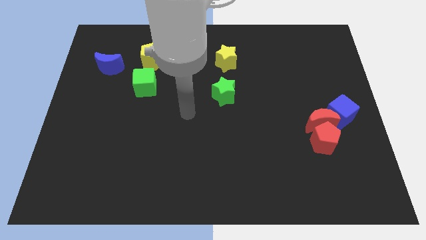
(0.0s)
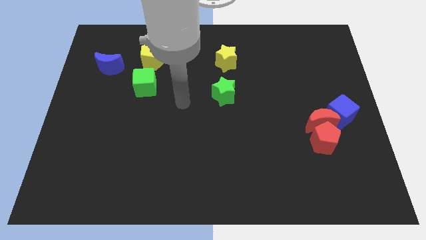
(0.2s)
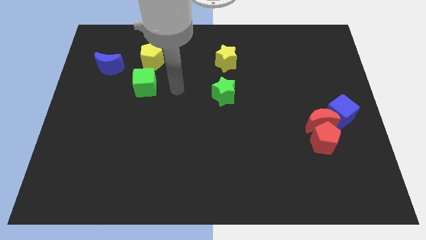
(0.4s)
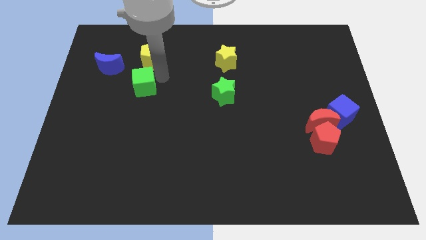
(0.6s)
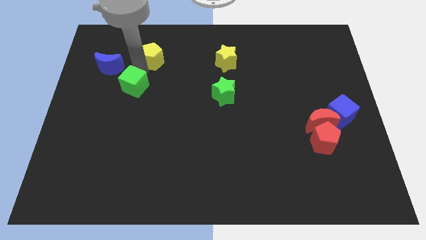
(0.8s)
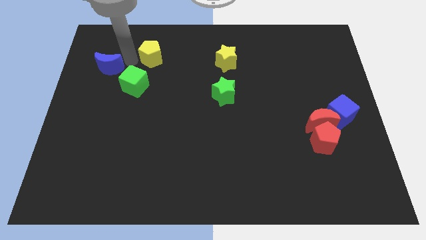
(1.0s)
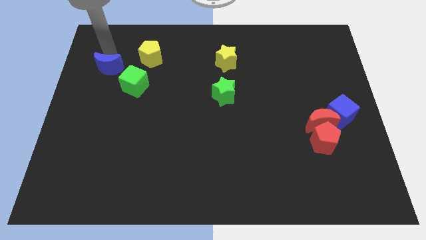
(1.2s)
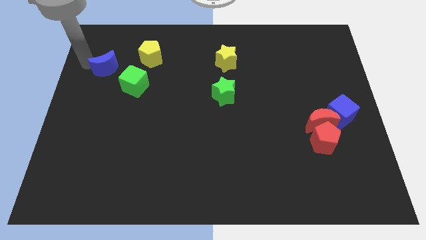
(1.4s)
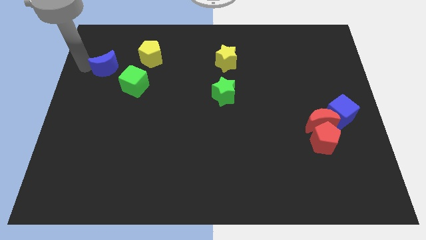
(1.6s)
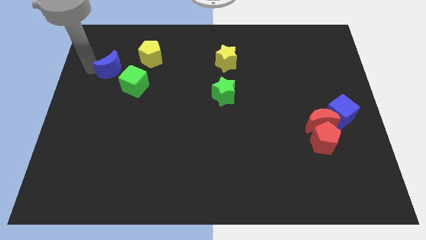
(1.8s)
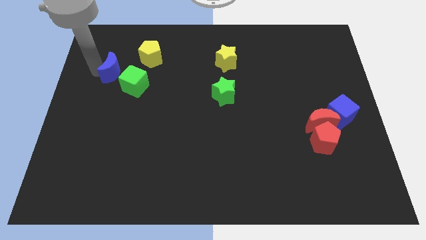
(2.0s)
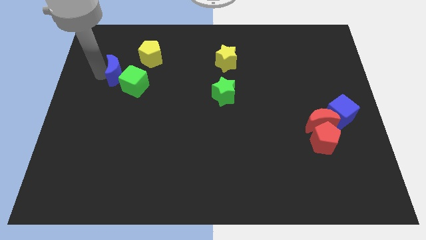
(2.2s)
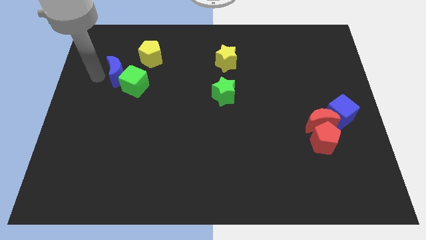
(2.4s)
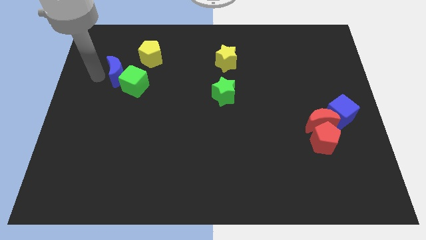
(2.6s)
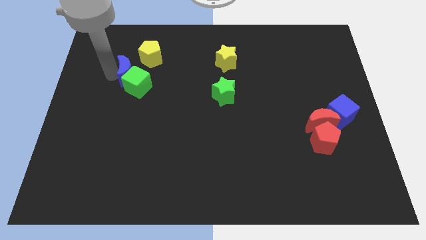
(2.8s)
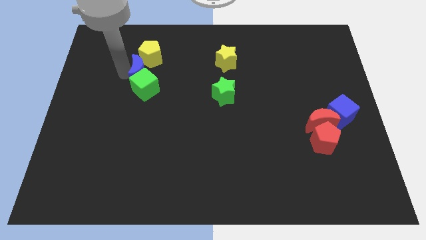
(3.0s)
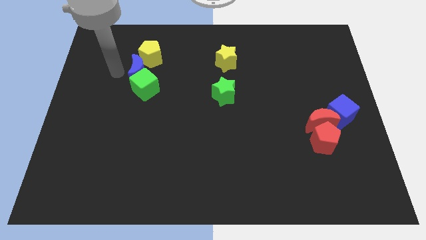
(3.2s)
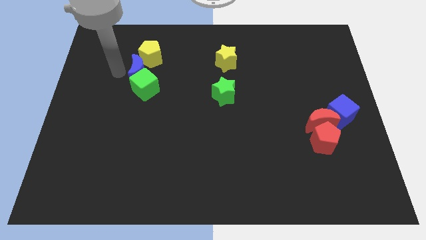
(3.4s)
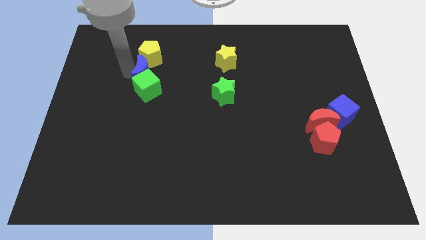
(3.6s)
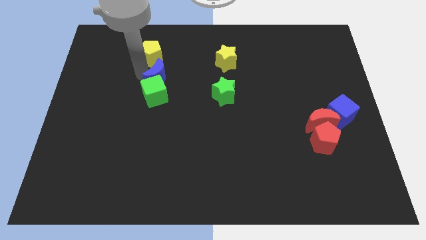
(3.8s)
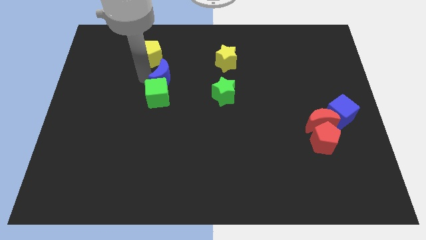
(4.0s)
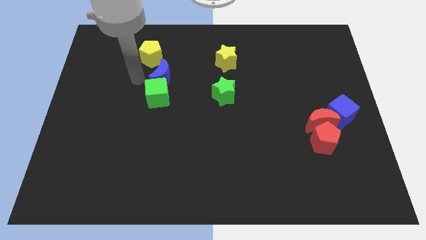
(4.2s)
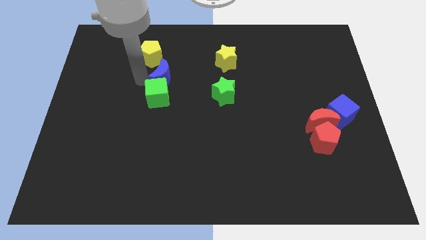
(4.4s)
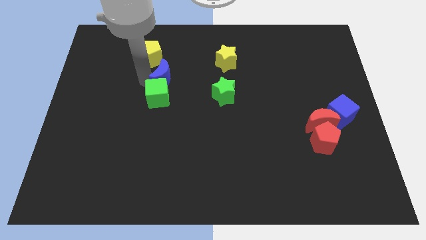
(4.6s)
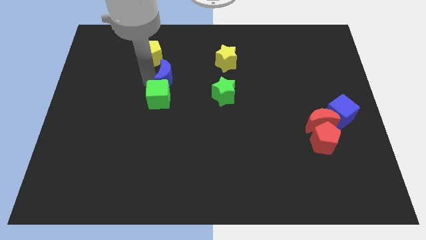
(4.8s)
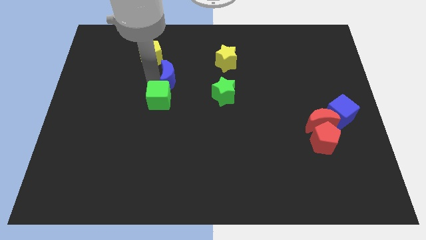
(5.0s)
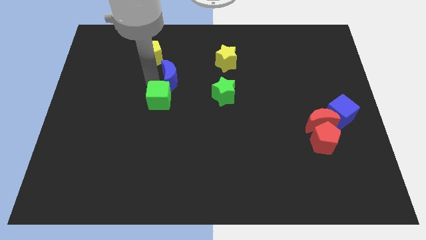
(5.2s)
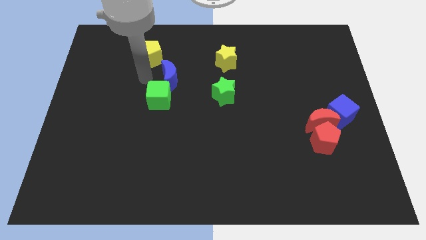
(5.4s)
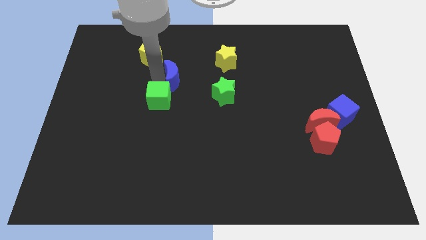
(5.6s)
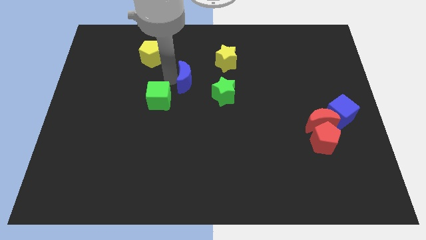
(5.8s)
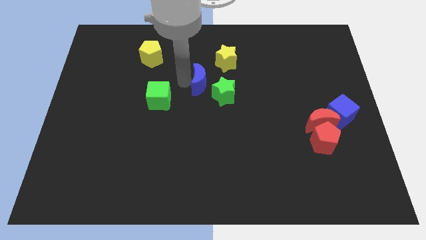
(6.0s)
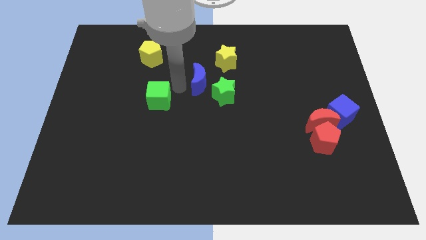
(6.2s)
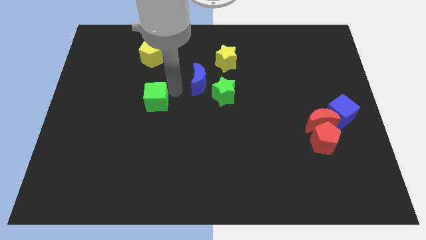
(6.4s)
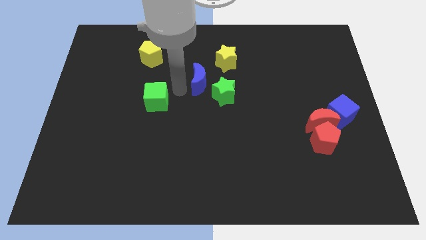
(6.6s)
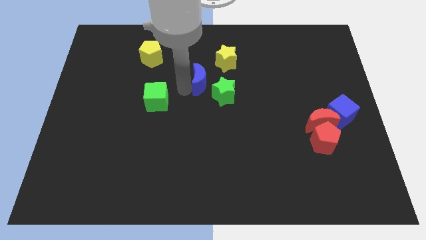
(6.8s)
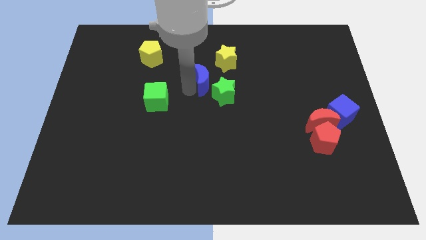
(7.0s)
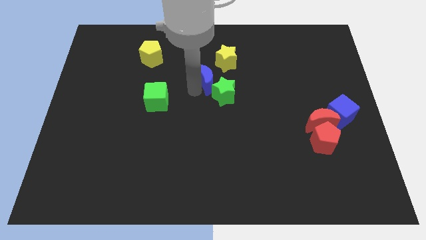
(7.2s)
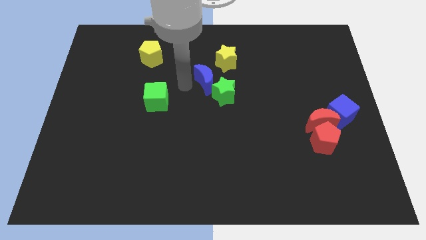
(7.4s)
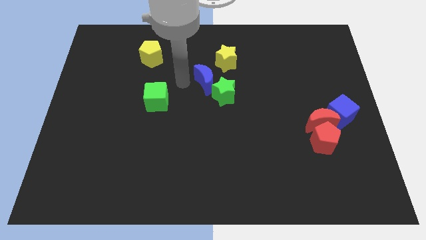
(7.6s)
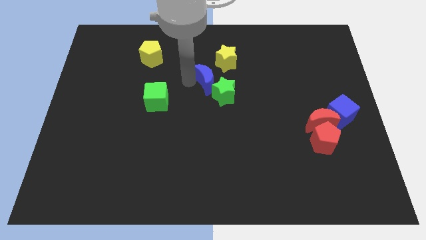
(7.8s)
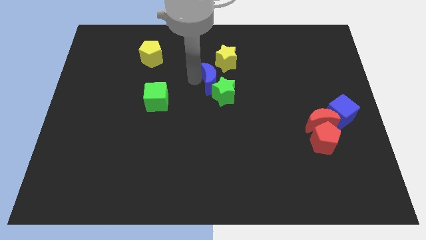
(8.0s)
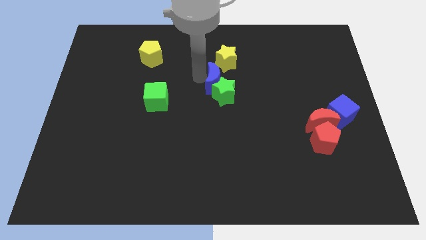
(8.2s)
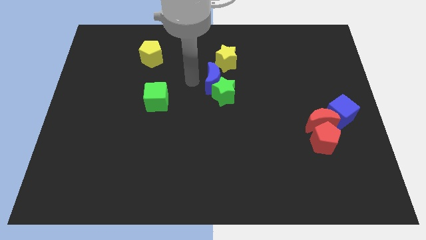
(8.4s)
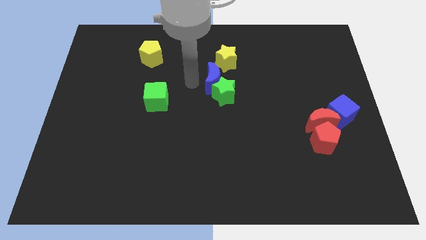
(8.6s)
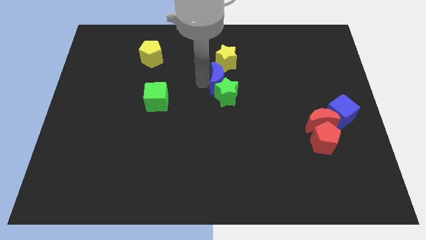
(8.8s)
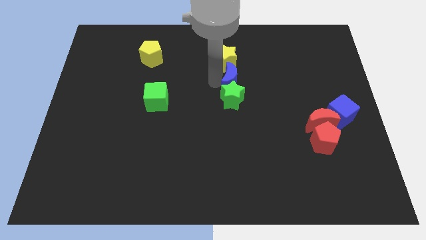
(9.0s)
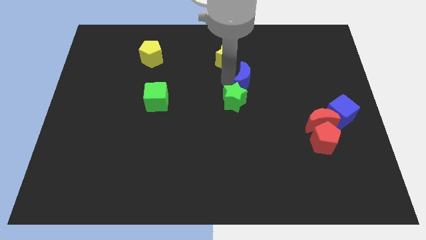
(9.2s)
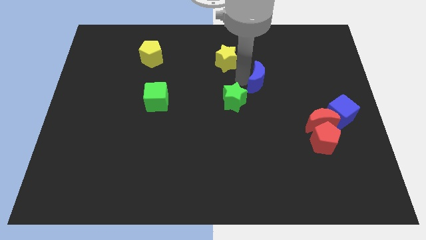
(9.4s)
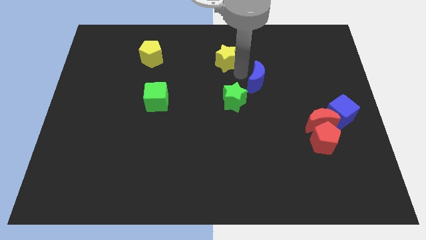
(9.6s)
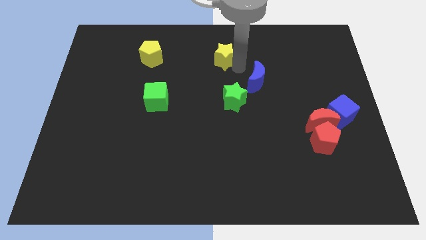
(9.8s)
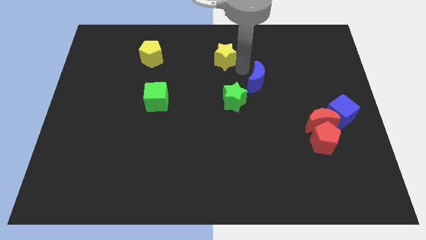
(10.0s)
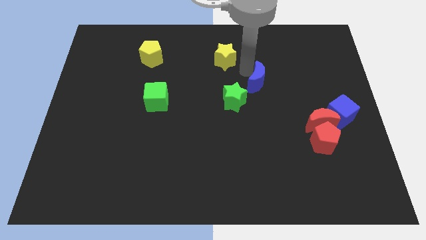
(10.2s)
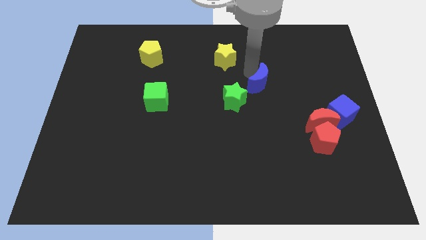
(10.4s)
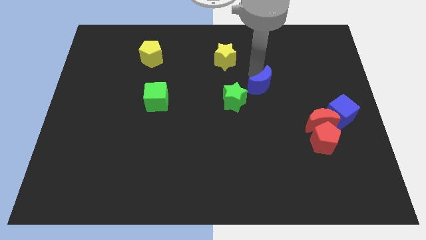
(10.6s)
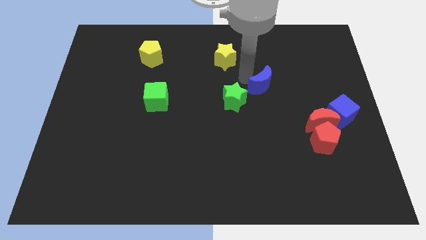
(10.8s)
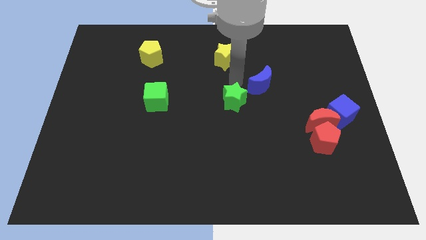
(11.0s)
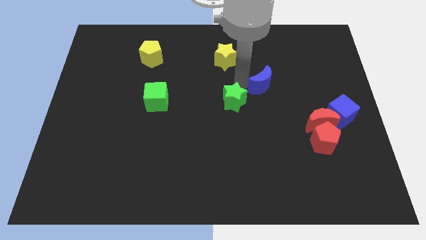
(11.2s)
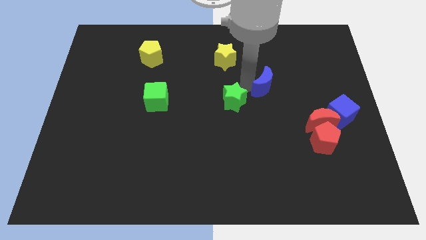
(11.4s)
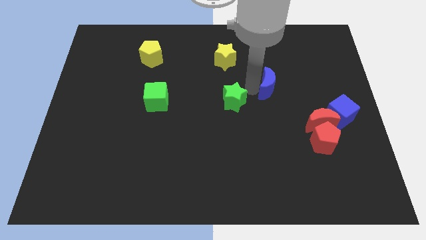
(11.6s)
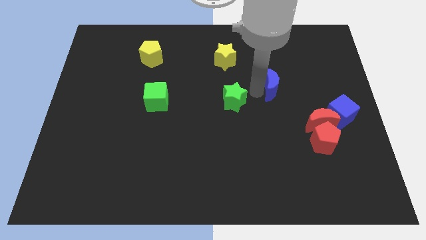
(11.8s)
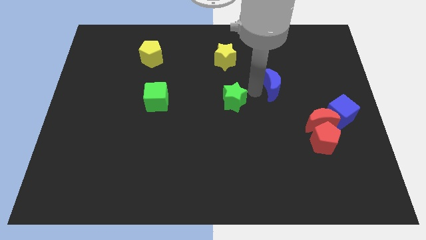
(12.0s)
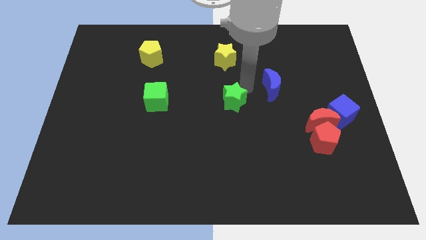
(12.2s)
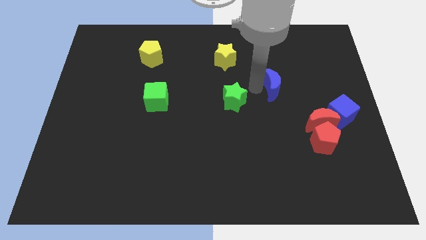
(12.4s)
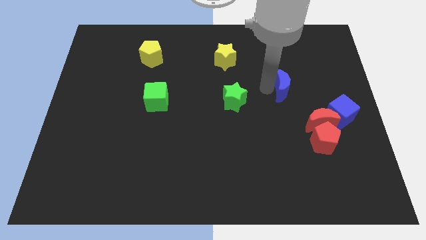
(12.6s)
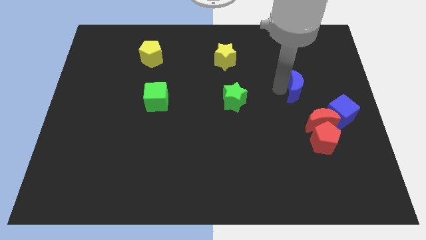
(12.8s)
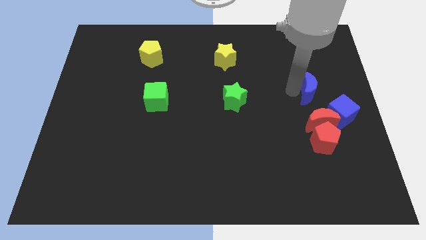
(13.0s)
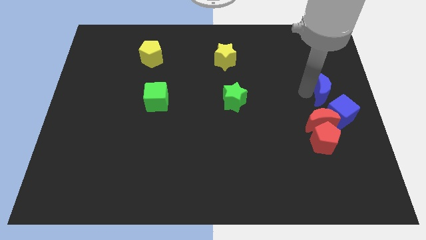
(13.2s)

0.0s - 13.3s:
push the blue moon to the center right

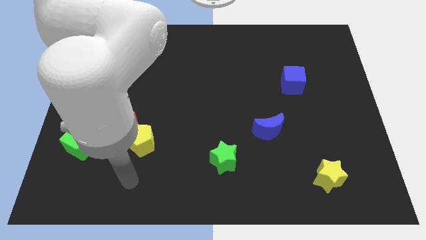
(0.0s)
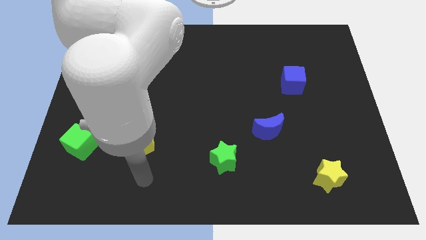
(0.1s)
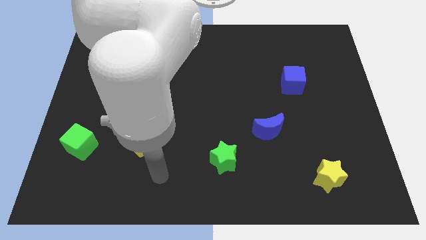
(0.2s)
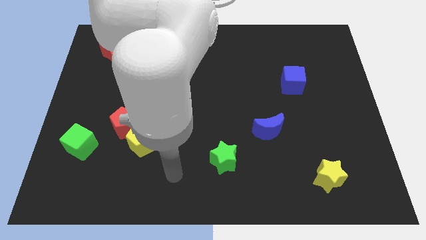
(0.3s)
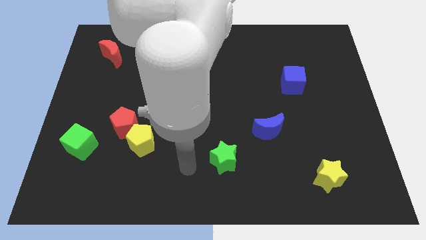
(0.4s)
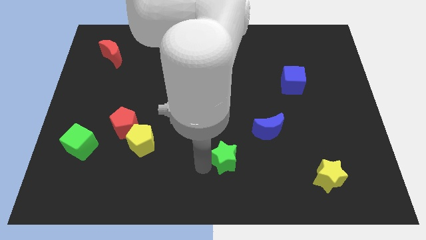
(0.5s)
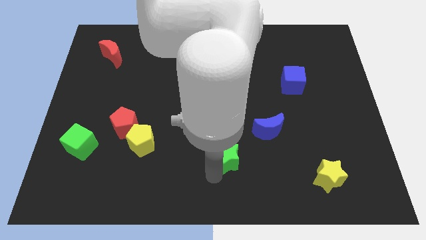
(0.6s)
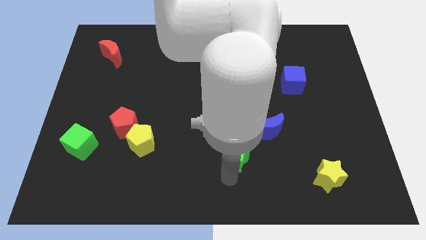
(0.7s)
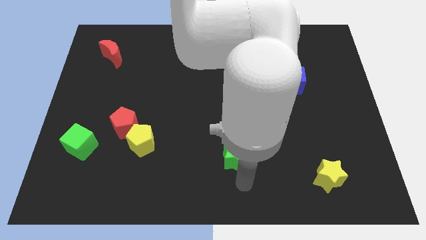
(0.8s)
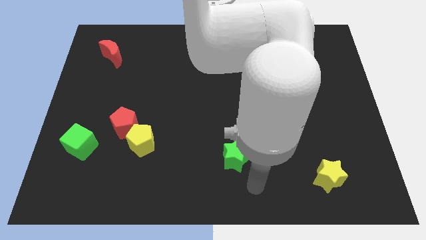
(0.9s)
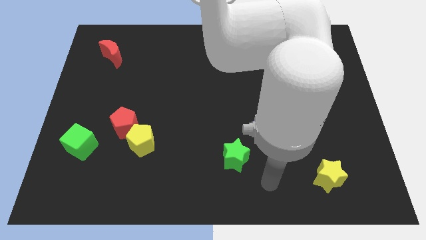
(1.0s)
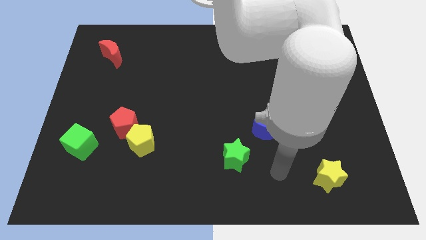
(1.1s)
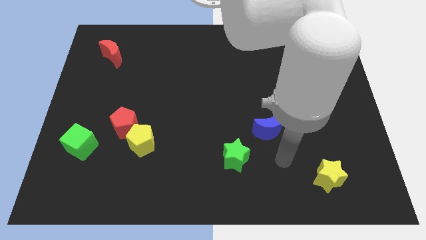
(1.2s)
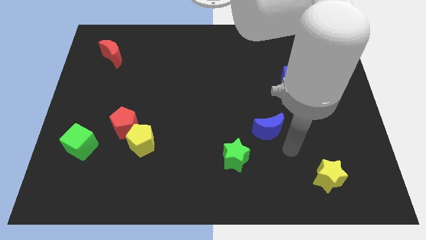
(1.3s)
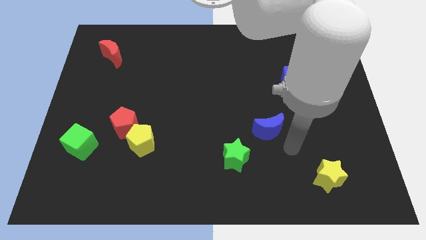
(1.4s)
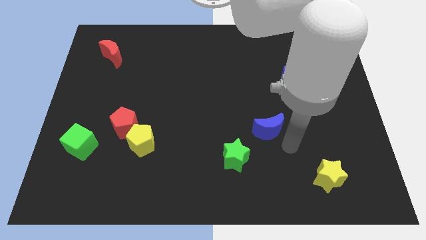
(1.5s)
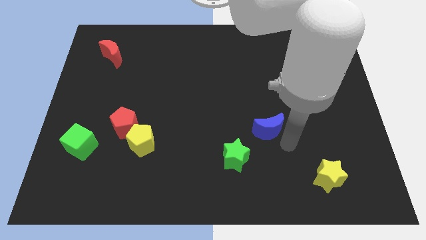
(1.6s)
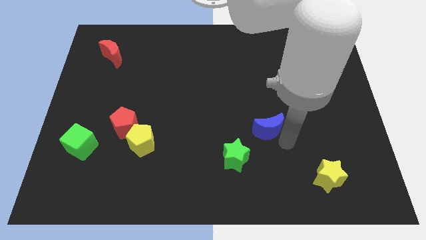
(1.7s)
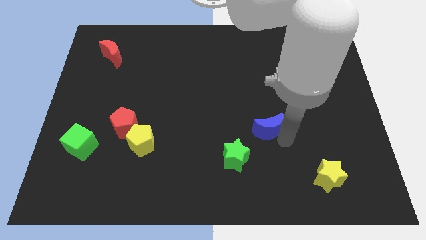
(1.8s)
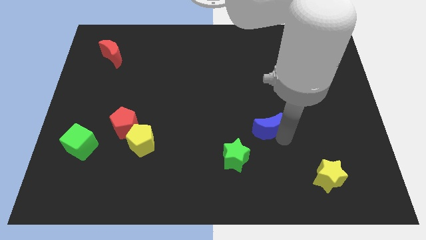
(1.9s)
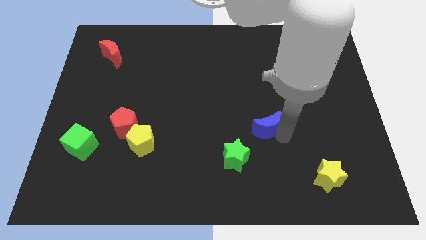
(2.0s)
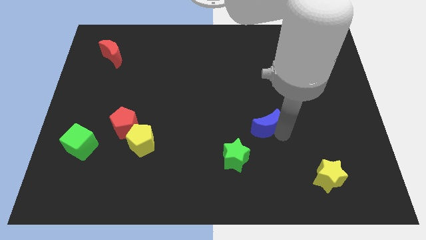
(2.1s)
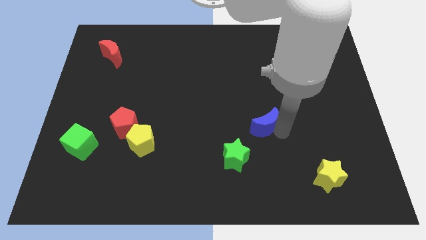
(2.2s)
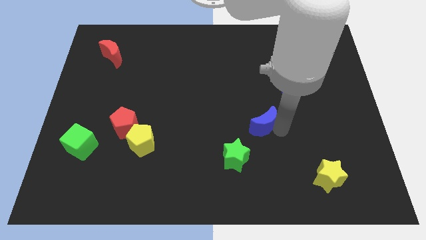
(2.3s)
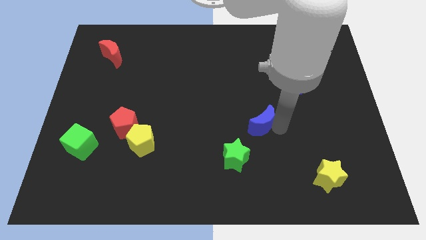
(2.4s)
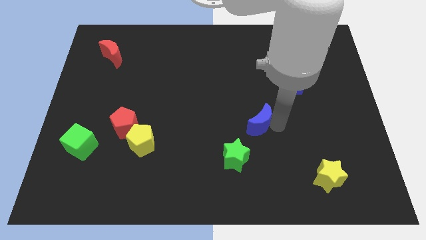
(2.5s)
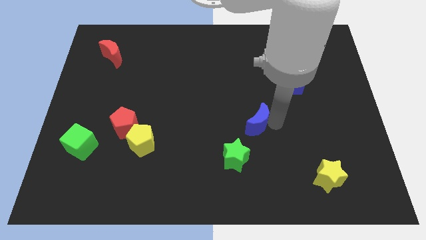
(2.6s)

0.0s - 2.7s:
push the blue moon to the center
